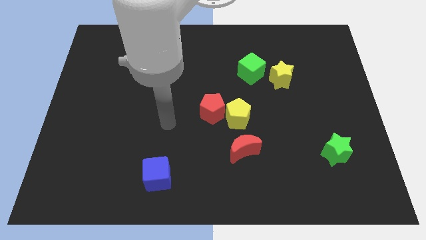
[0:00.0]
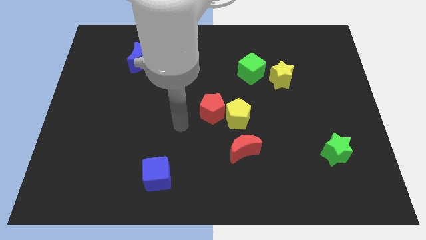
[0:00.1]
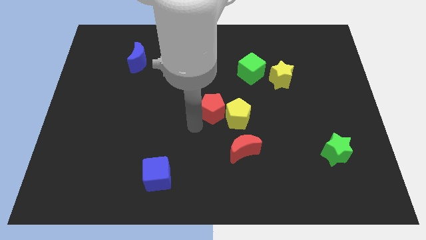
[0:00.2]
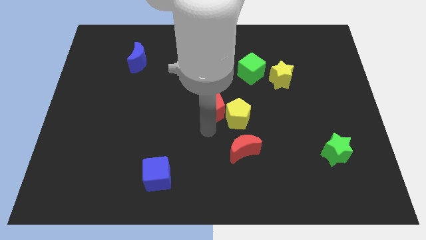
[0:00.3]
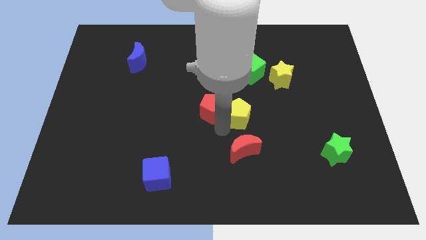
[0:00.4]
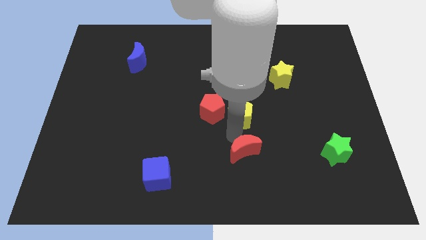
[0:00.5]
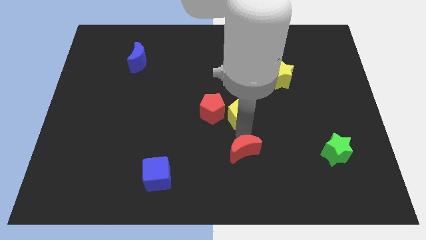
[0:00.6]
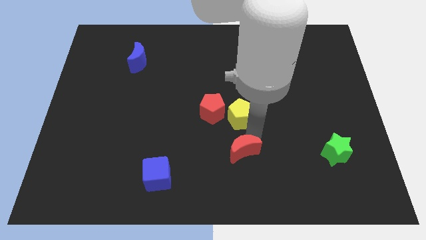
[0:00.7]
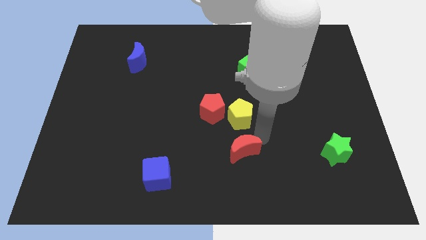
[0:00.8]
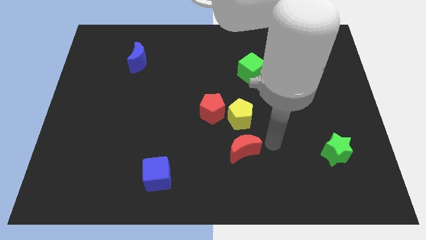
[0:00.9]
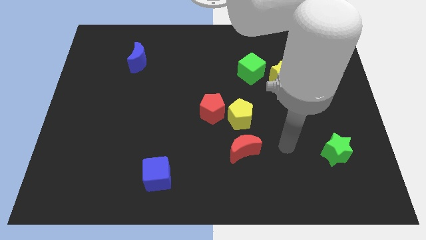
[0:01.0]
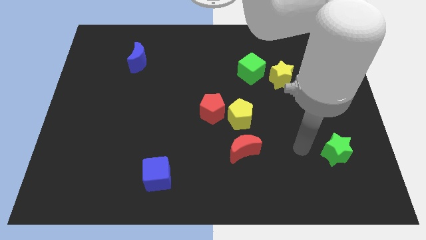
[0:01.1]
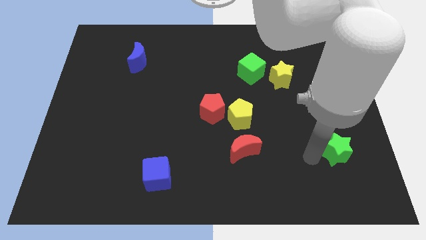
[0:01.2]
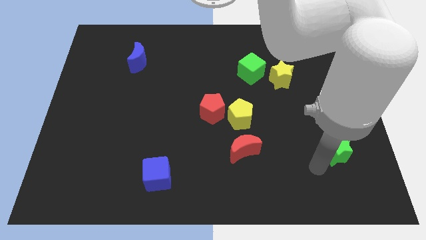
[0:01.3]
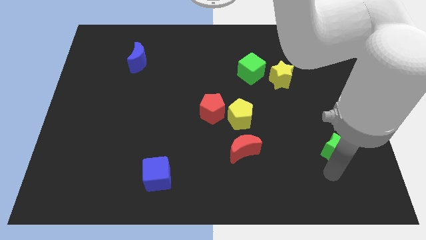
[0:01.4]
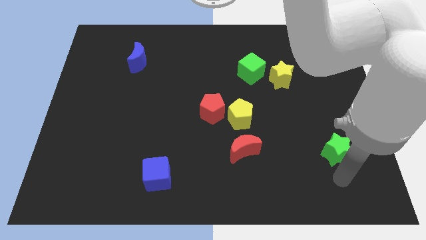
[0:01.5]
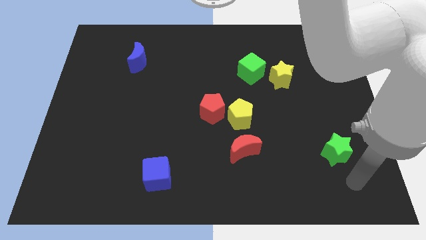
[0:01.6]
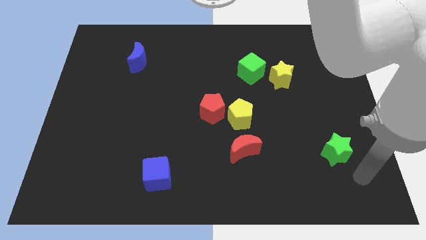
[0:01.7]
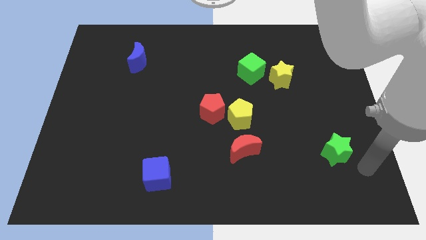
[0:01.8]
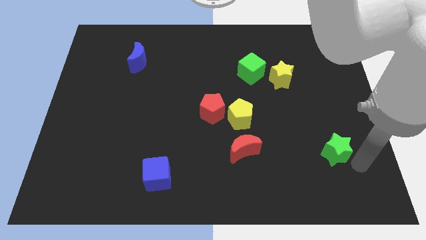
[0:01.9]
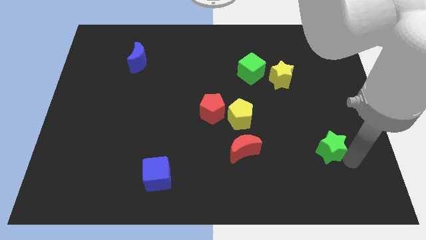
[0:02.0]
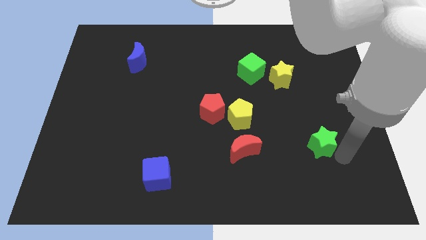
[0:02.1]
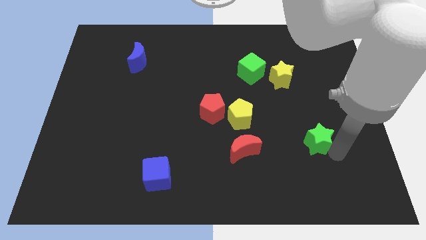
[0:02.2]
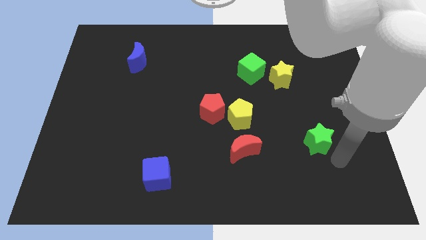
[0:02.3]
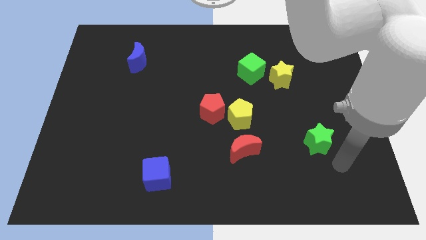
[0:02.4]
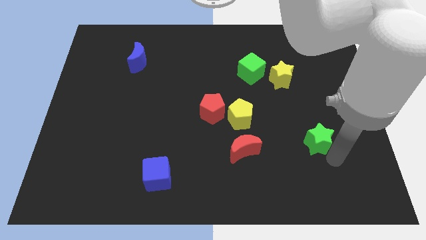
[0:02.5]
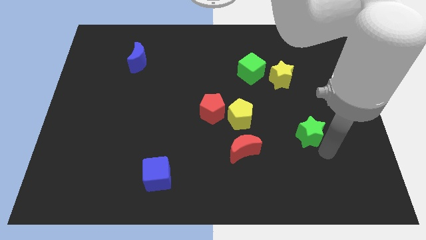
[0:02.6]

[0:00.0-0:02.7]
slide the green star slightly up and left

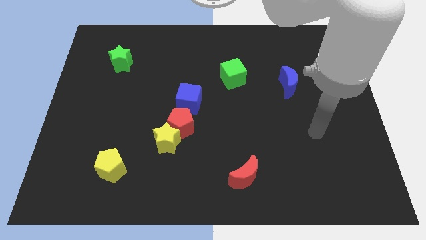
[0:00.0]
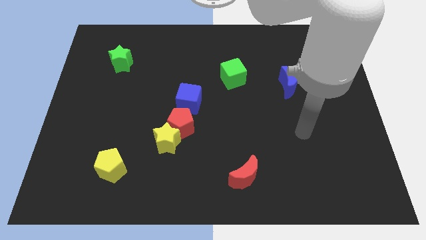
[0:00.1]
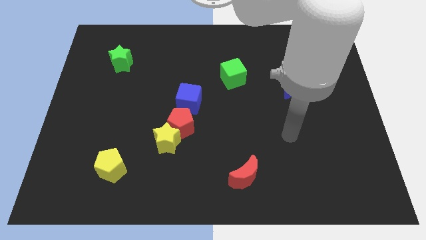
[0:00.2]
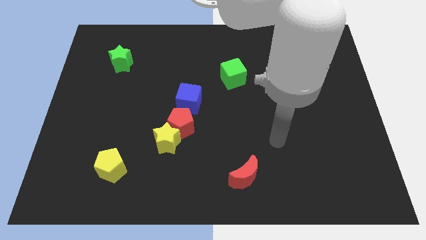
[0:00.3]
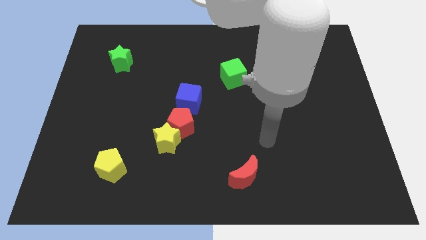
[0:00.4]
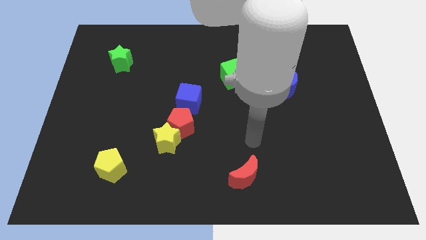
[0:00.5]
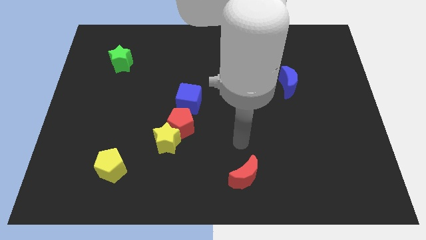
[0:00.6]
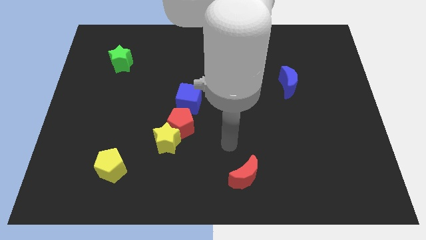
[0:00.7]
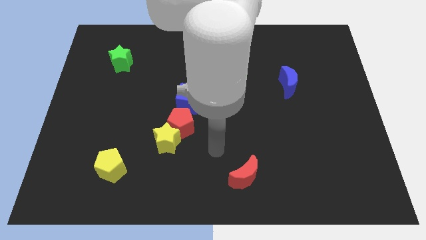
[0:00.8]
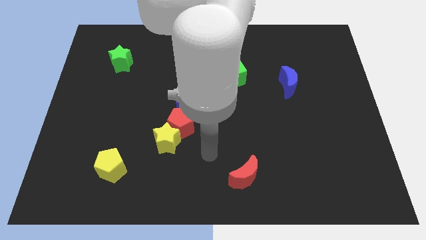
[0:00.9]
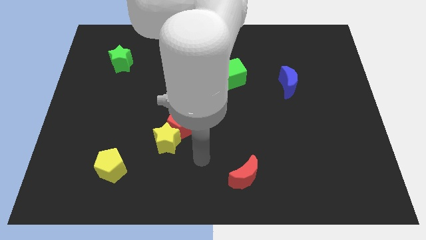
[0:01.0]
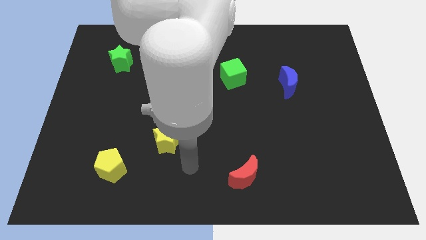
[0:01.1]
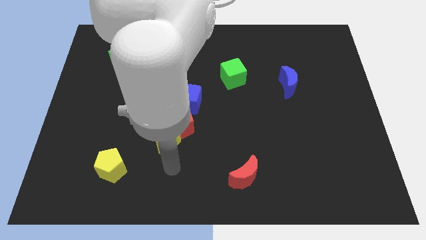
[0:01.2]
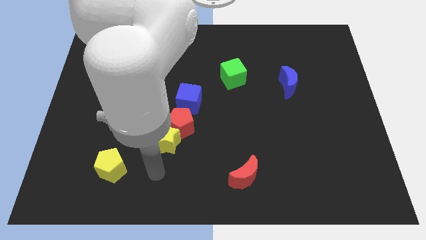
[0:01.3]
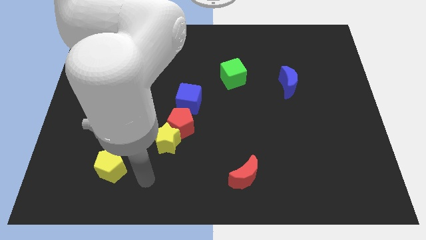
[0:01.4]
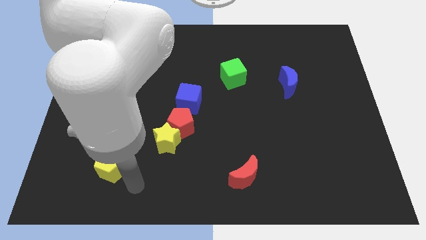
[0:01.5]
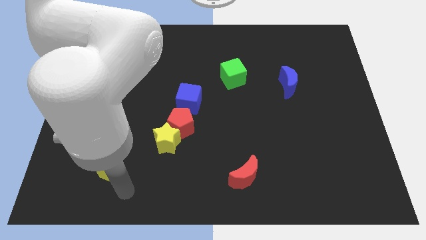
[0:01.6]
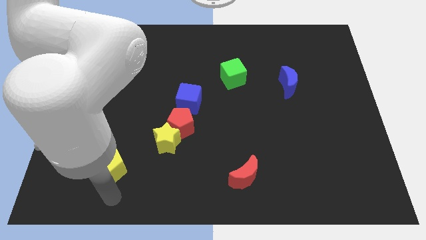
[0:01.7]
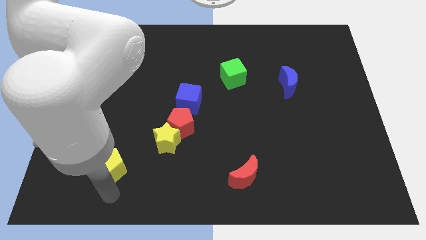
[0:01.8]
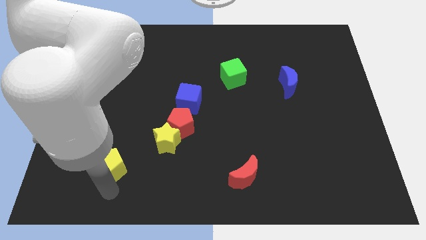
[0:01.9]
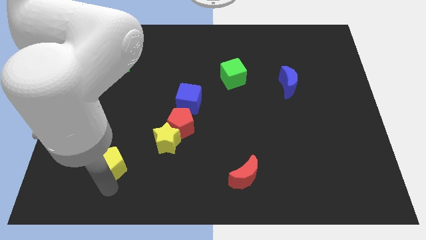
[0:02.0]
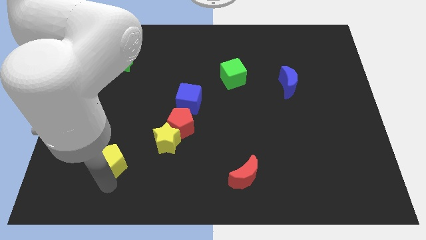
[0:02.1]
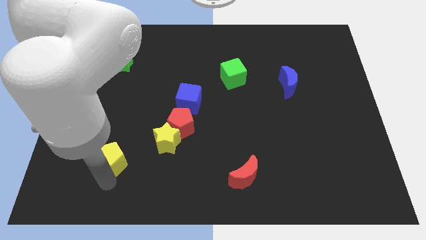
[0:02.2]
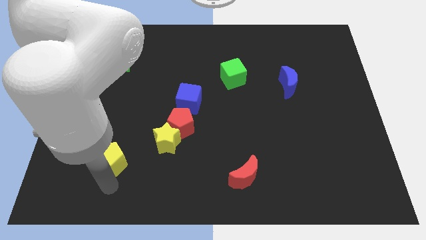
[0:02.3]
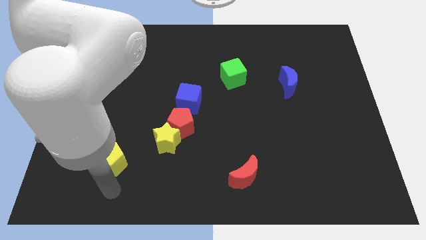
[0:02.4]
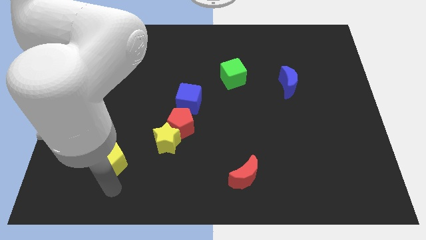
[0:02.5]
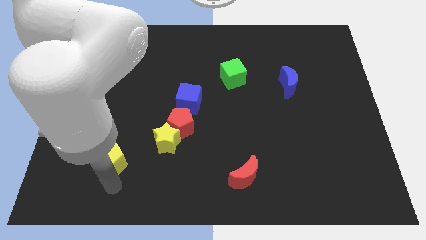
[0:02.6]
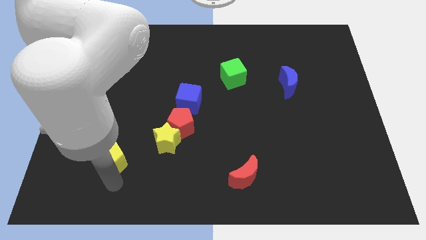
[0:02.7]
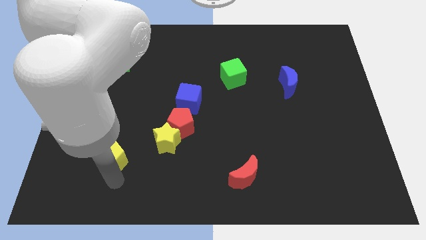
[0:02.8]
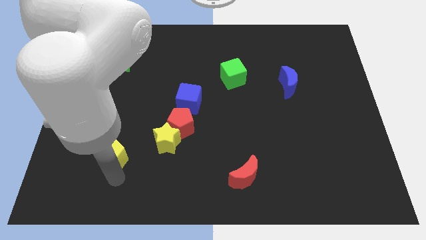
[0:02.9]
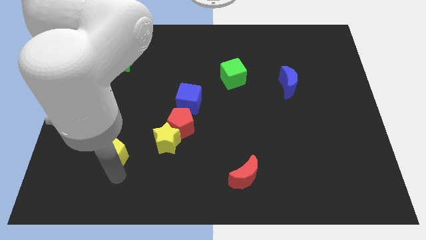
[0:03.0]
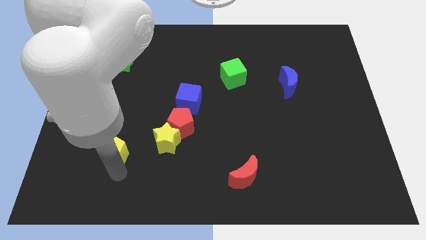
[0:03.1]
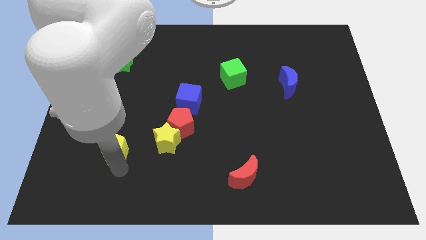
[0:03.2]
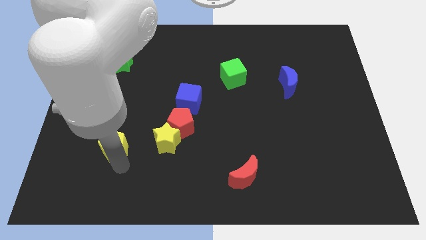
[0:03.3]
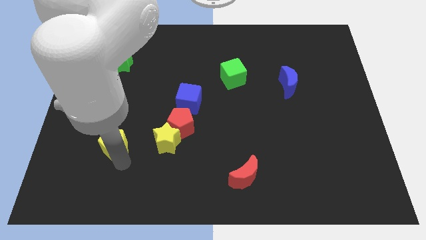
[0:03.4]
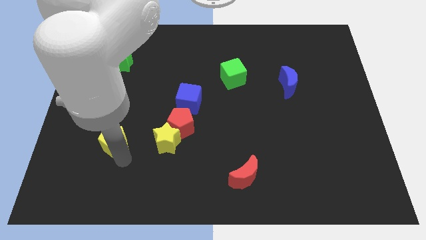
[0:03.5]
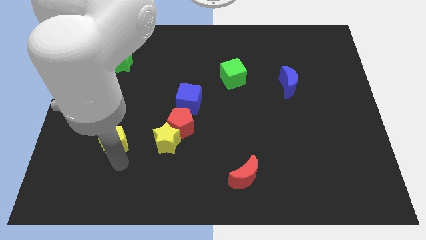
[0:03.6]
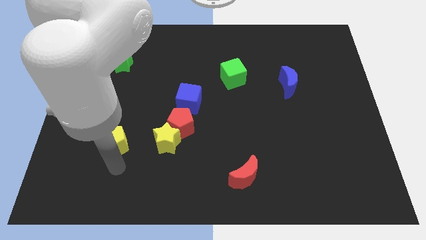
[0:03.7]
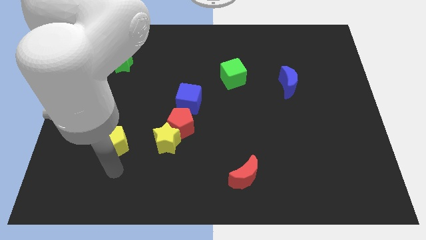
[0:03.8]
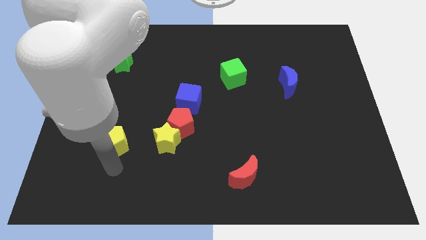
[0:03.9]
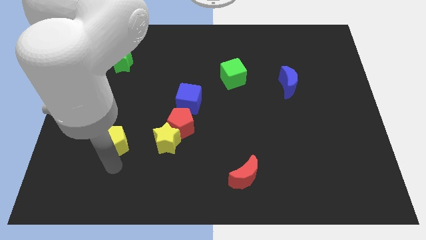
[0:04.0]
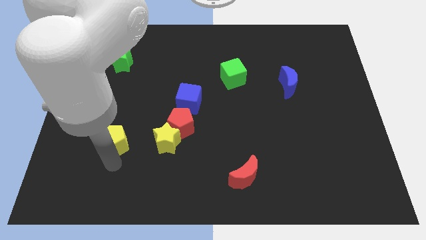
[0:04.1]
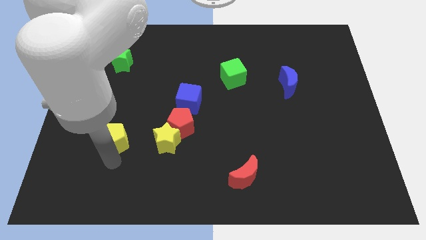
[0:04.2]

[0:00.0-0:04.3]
move the yellow pentagon upwards slightly

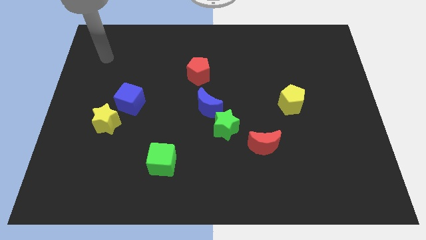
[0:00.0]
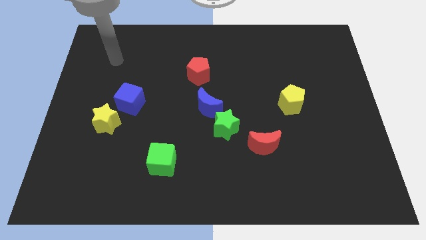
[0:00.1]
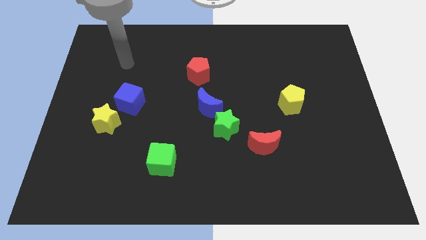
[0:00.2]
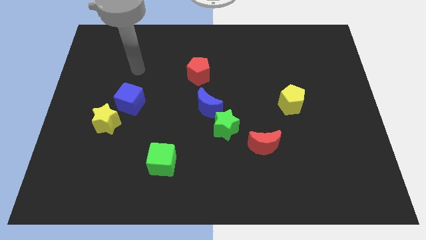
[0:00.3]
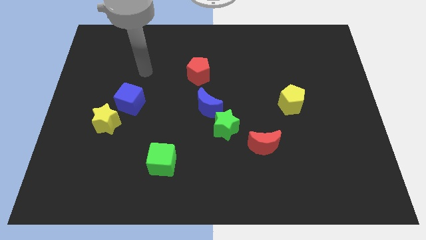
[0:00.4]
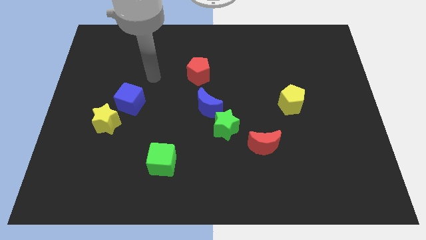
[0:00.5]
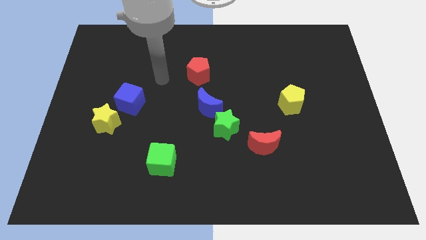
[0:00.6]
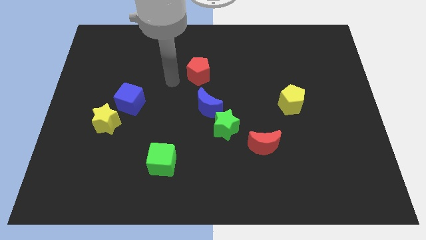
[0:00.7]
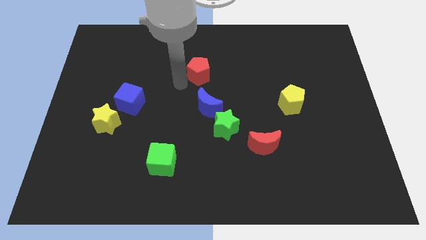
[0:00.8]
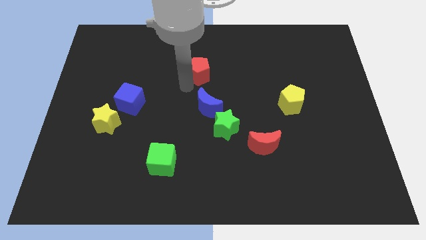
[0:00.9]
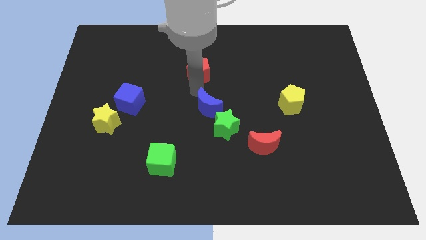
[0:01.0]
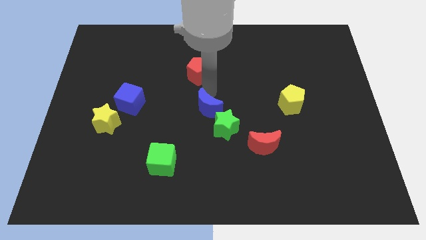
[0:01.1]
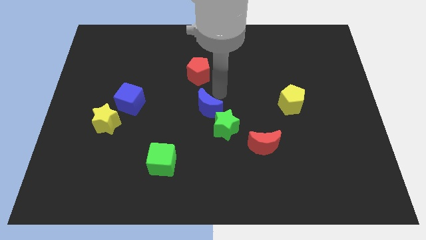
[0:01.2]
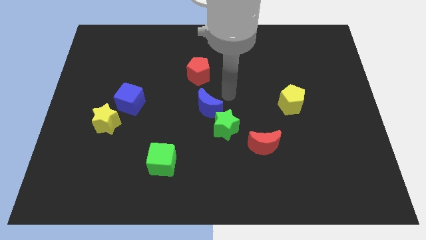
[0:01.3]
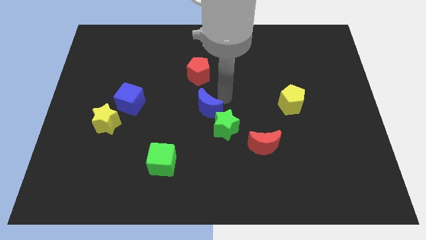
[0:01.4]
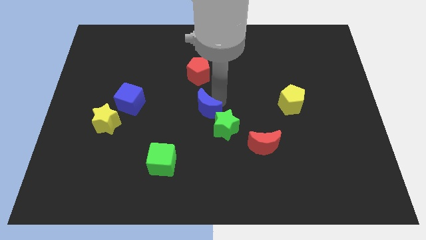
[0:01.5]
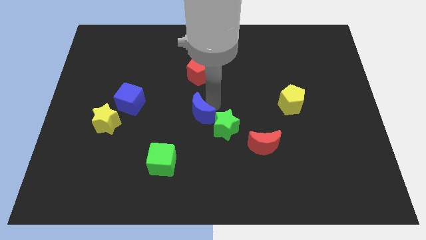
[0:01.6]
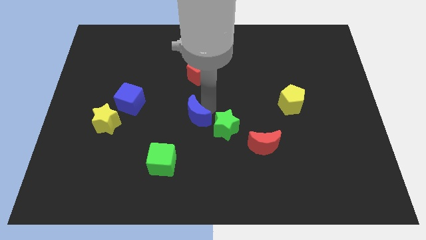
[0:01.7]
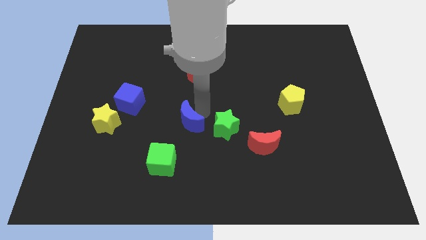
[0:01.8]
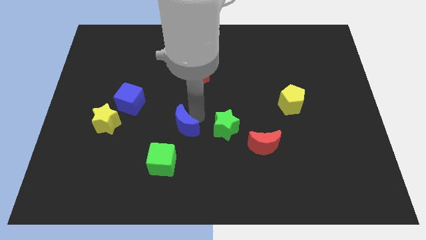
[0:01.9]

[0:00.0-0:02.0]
slide the blue moon slightly diagonally down and left
